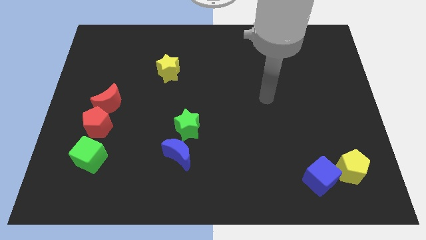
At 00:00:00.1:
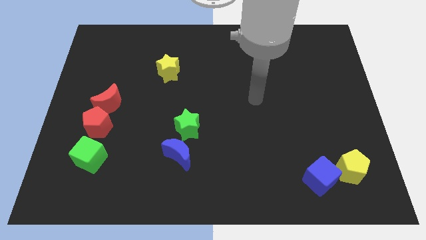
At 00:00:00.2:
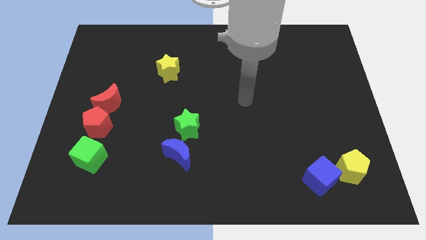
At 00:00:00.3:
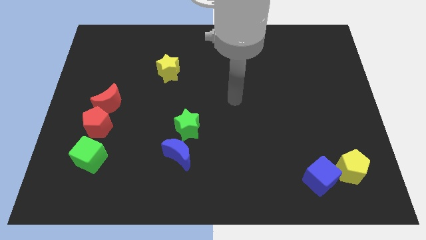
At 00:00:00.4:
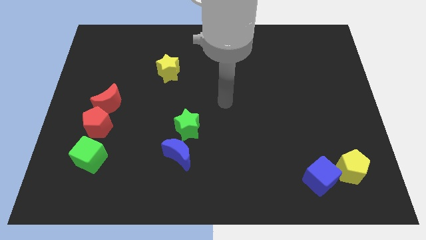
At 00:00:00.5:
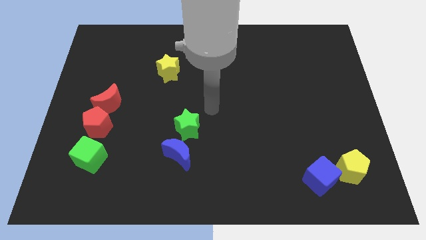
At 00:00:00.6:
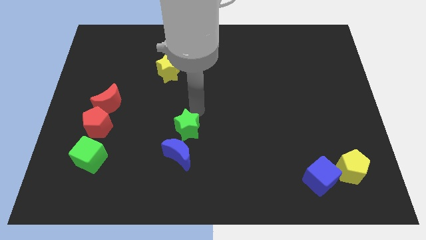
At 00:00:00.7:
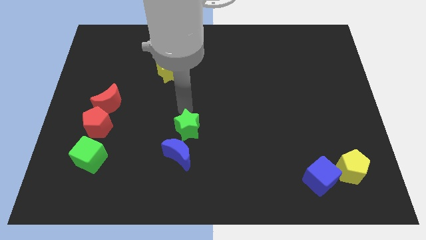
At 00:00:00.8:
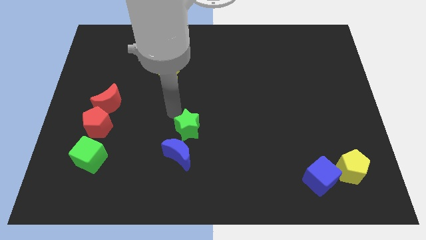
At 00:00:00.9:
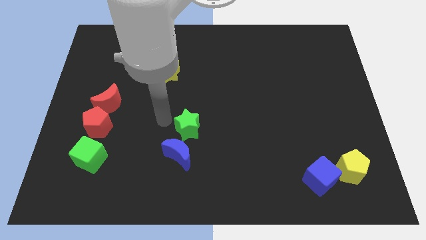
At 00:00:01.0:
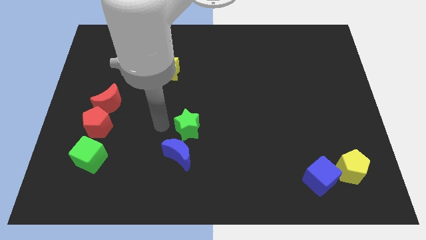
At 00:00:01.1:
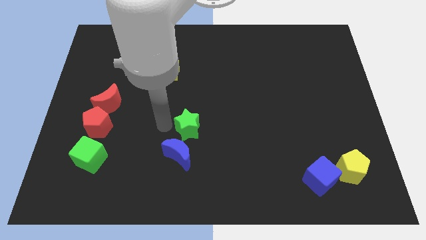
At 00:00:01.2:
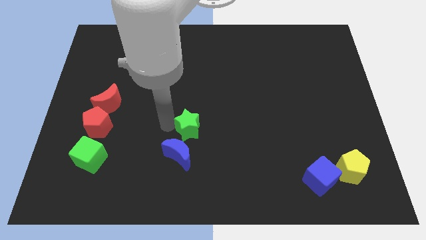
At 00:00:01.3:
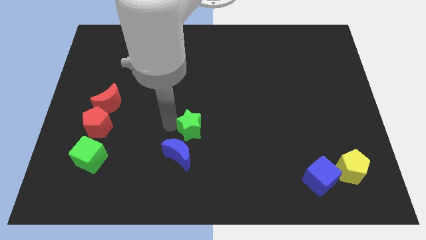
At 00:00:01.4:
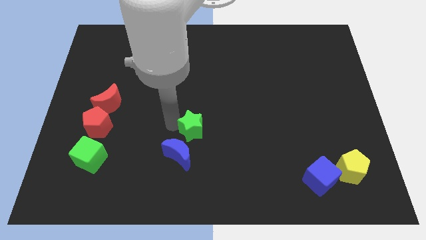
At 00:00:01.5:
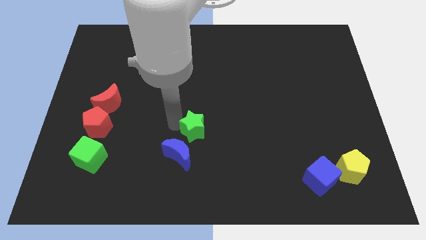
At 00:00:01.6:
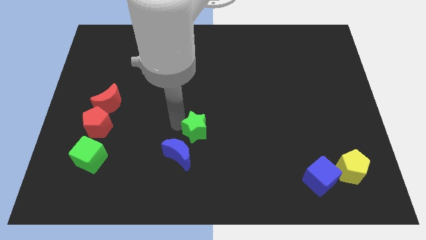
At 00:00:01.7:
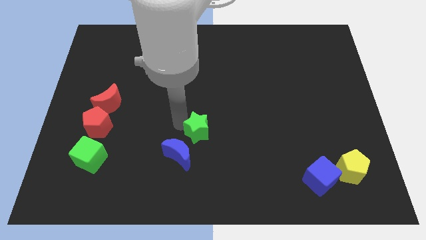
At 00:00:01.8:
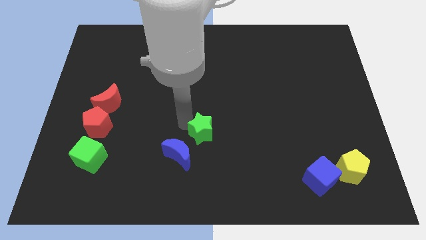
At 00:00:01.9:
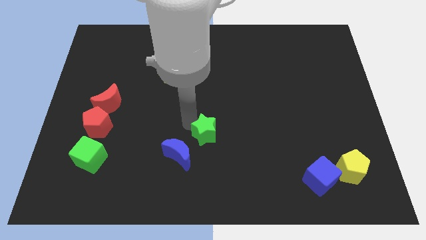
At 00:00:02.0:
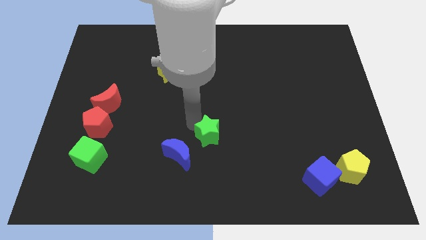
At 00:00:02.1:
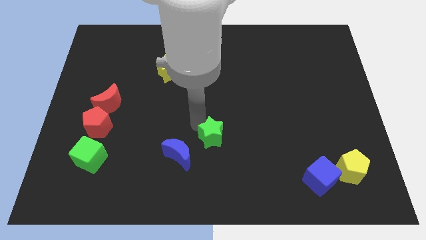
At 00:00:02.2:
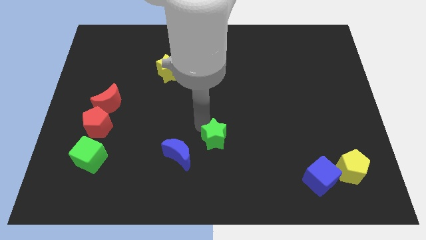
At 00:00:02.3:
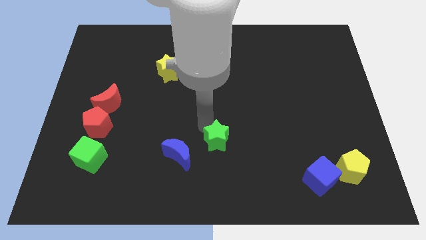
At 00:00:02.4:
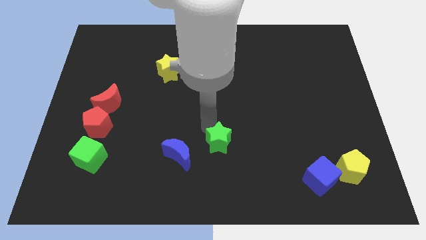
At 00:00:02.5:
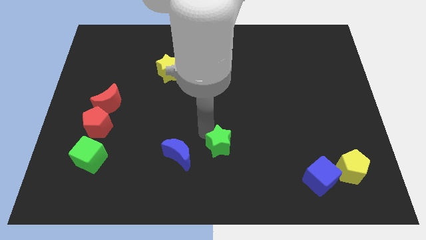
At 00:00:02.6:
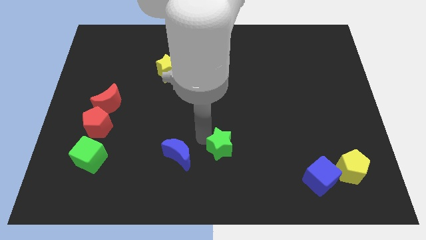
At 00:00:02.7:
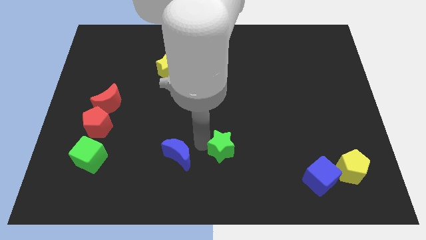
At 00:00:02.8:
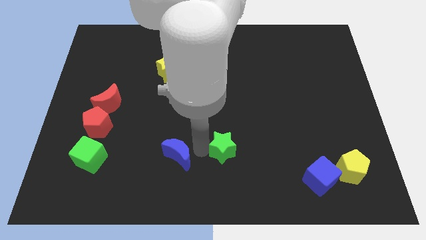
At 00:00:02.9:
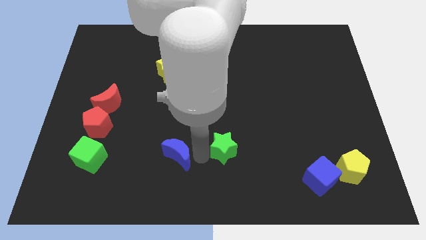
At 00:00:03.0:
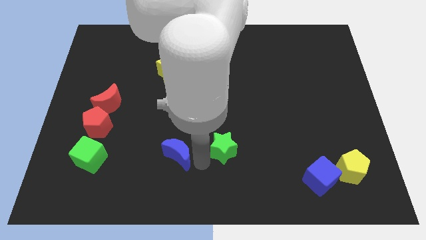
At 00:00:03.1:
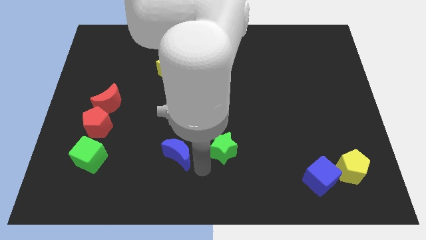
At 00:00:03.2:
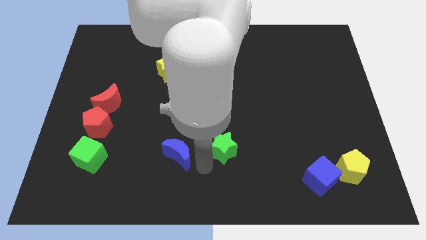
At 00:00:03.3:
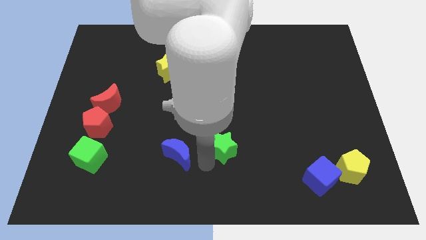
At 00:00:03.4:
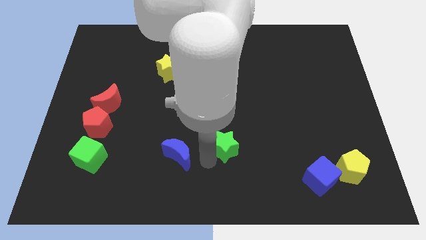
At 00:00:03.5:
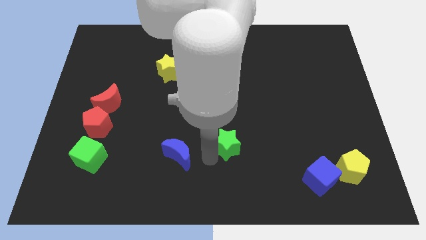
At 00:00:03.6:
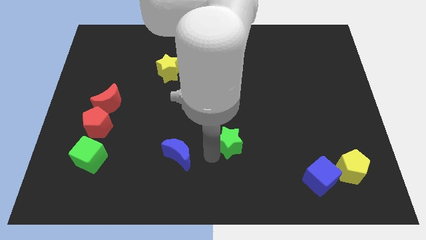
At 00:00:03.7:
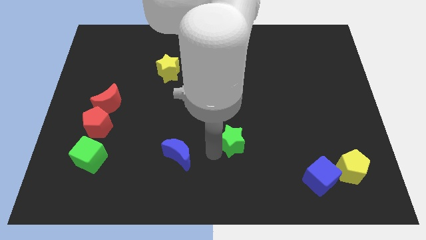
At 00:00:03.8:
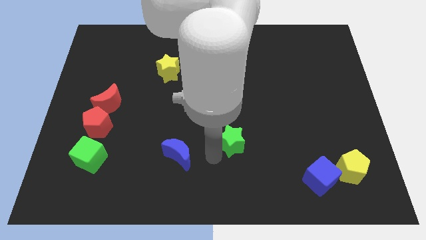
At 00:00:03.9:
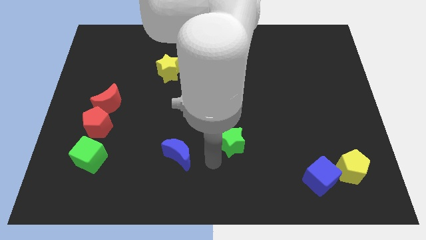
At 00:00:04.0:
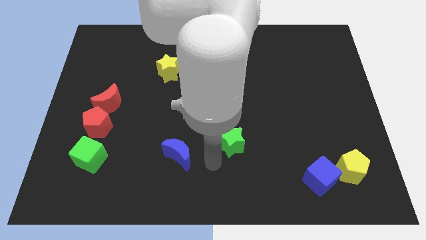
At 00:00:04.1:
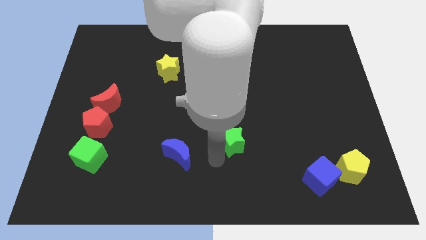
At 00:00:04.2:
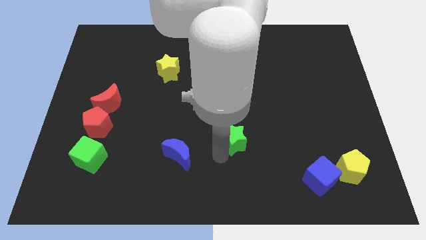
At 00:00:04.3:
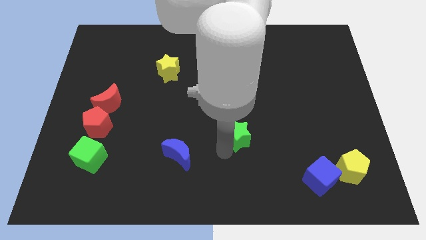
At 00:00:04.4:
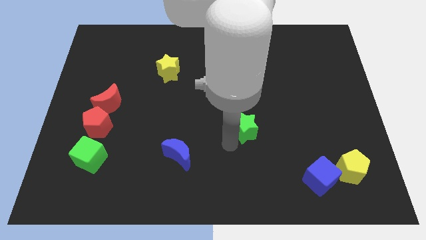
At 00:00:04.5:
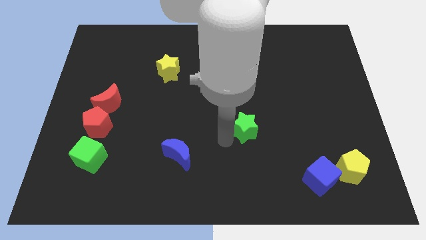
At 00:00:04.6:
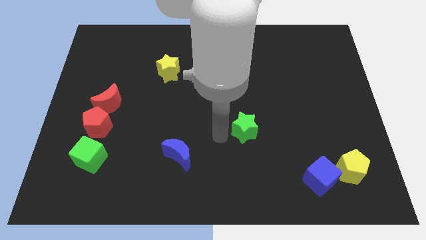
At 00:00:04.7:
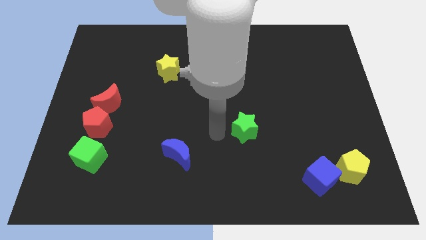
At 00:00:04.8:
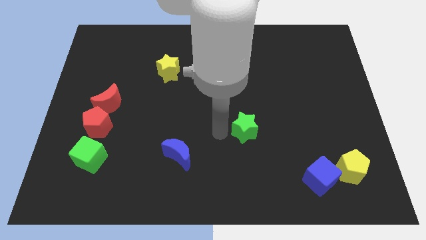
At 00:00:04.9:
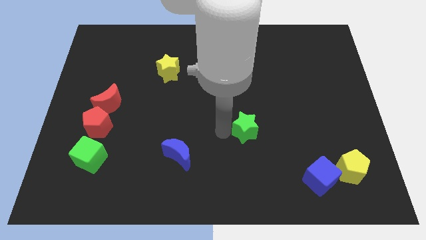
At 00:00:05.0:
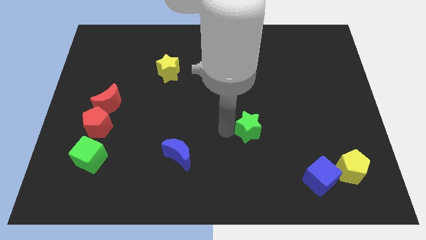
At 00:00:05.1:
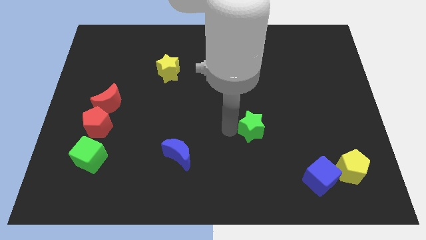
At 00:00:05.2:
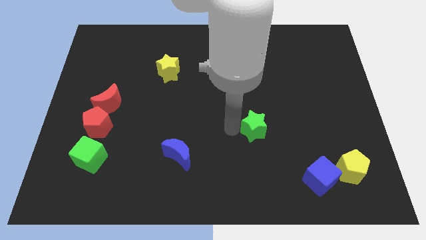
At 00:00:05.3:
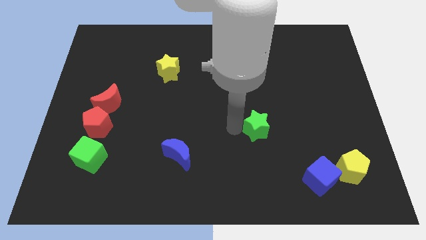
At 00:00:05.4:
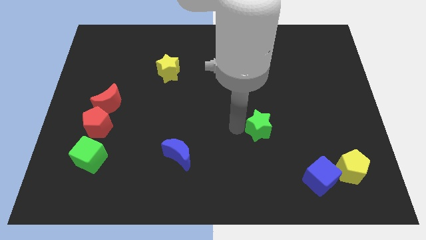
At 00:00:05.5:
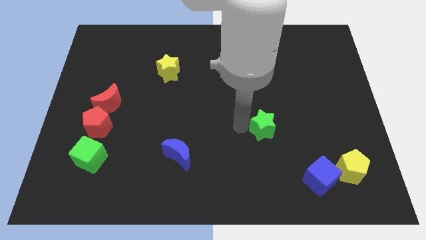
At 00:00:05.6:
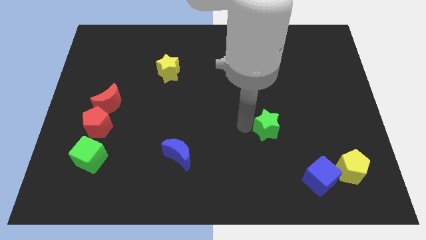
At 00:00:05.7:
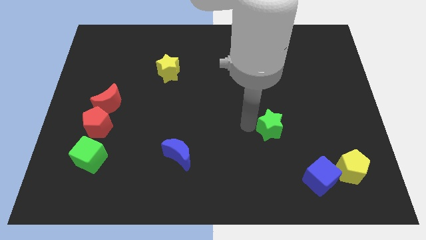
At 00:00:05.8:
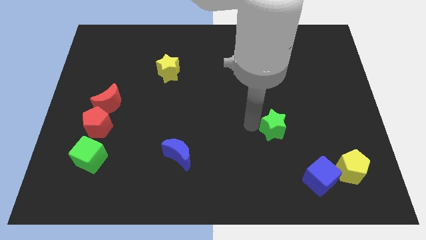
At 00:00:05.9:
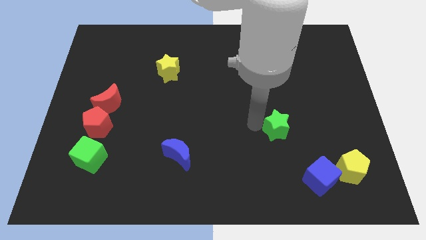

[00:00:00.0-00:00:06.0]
move the green star to the right

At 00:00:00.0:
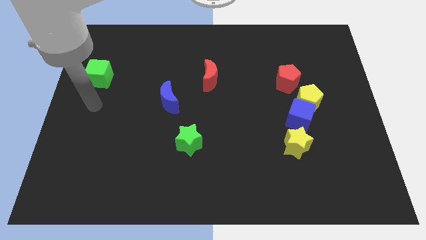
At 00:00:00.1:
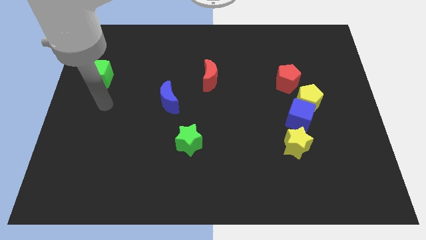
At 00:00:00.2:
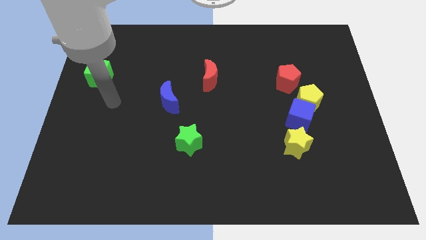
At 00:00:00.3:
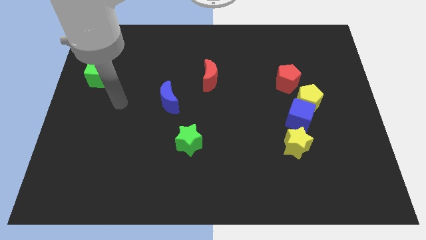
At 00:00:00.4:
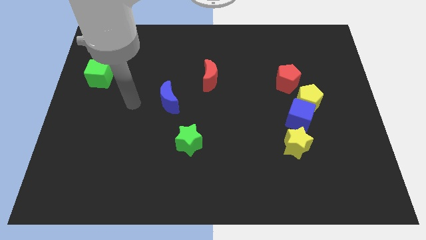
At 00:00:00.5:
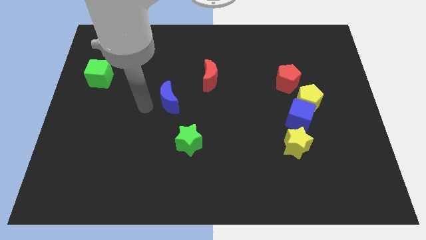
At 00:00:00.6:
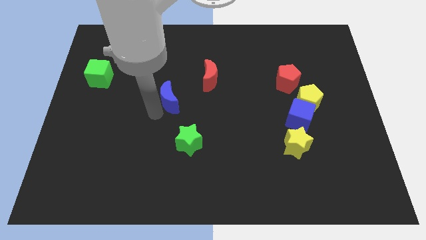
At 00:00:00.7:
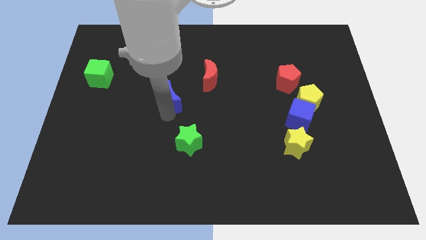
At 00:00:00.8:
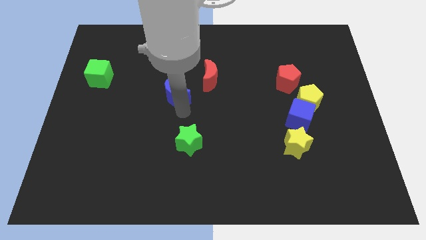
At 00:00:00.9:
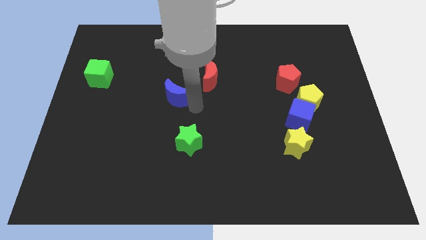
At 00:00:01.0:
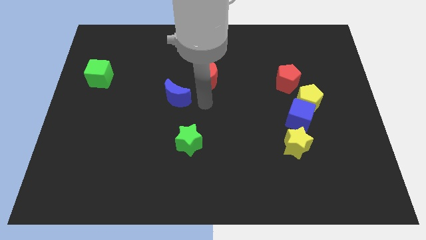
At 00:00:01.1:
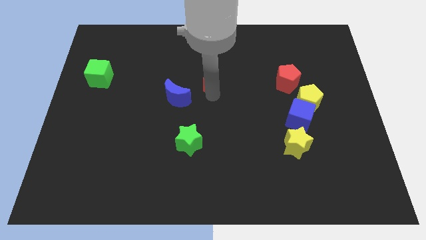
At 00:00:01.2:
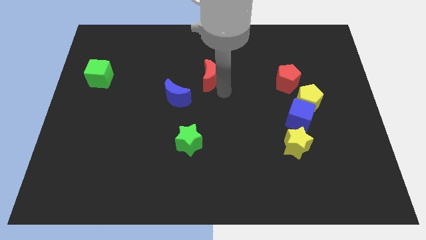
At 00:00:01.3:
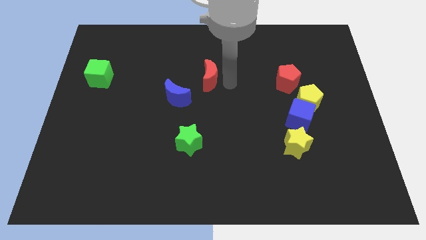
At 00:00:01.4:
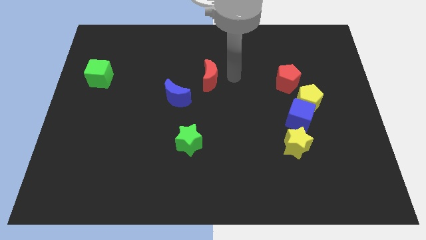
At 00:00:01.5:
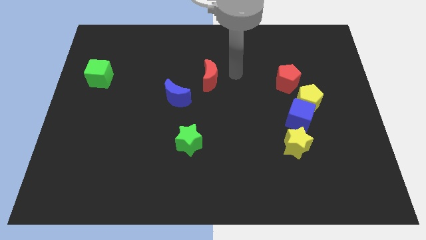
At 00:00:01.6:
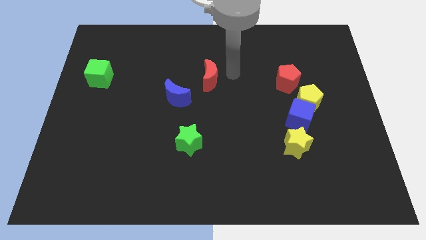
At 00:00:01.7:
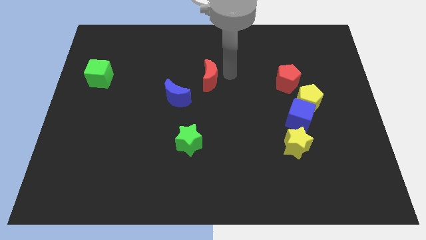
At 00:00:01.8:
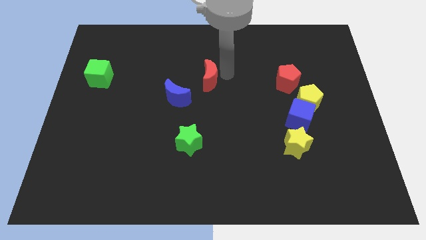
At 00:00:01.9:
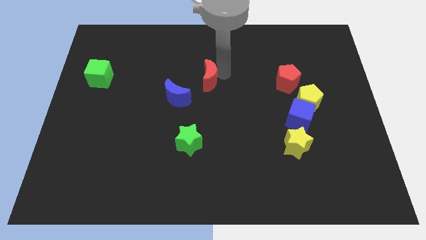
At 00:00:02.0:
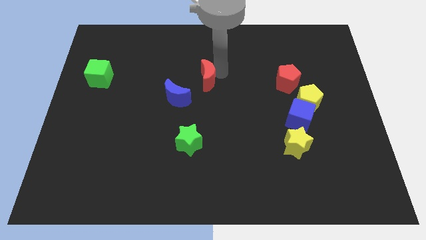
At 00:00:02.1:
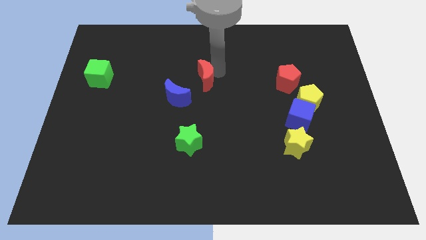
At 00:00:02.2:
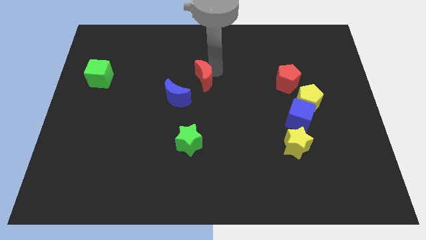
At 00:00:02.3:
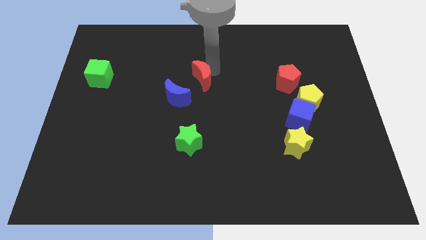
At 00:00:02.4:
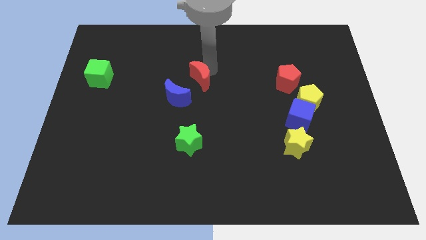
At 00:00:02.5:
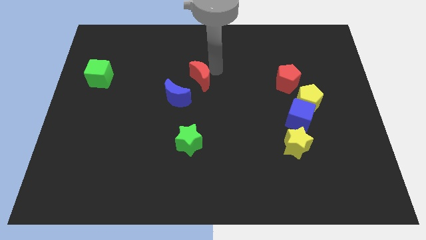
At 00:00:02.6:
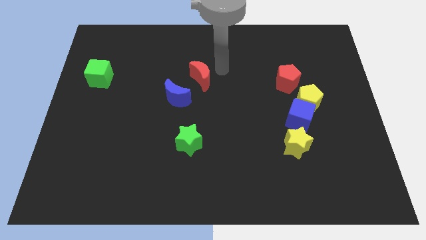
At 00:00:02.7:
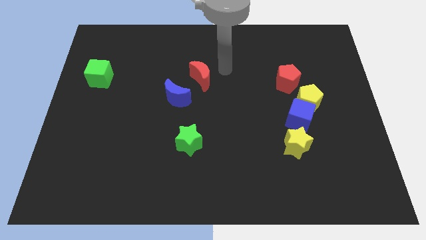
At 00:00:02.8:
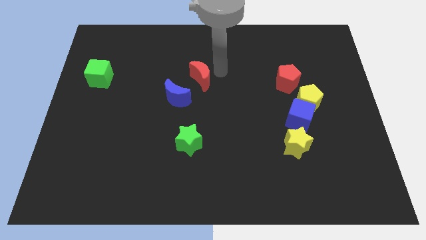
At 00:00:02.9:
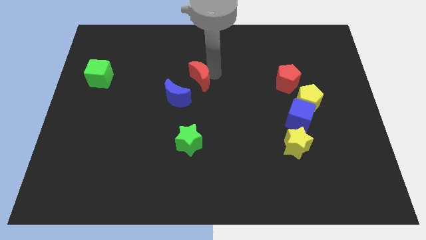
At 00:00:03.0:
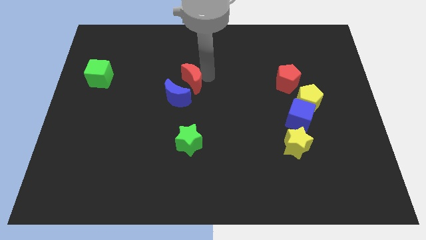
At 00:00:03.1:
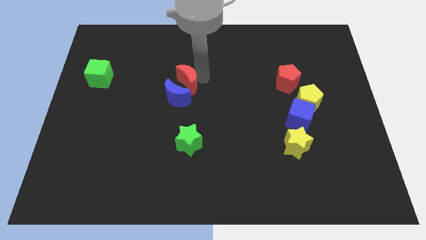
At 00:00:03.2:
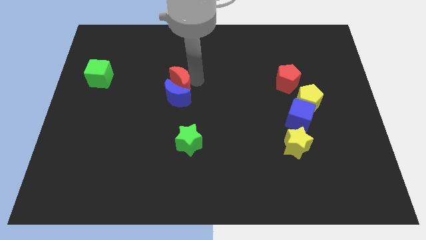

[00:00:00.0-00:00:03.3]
slightly slide the red moon left
